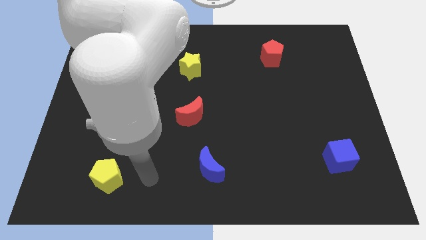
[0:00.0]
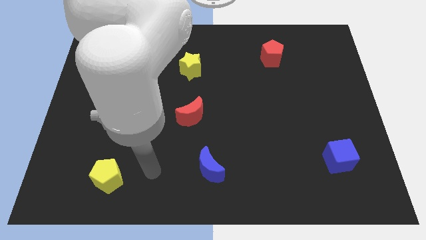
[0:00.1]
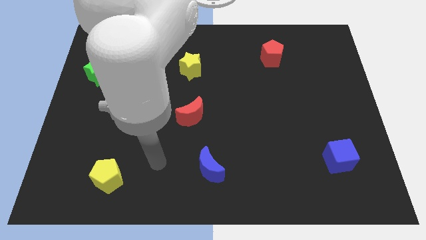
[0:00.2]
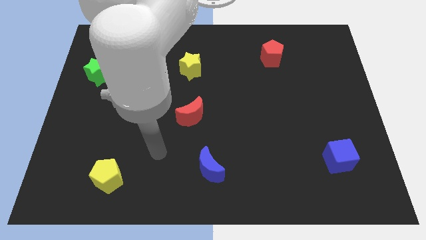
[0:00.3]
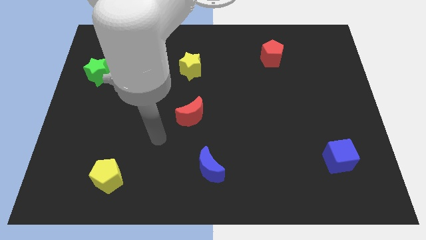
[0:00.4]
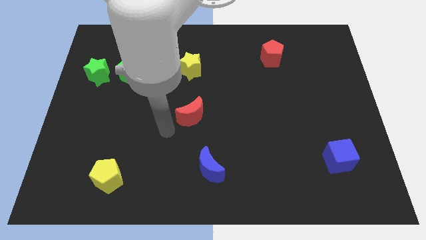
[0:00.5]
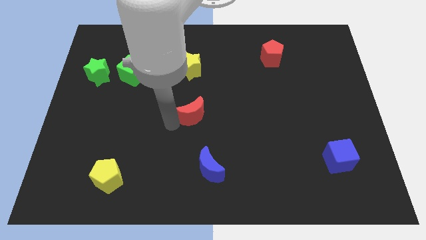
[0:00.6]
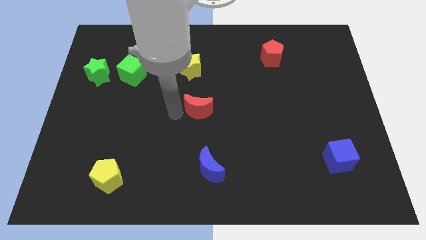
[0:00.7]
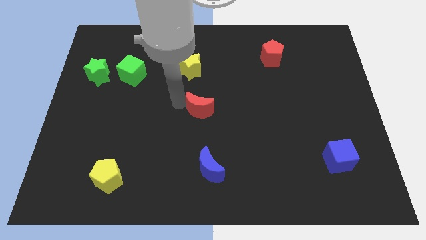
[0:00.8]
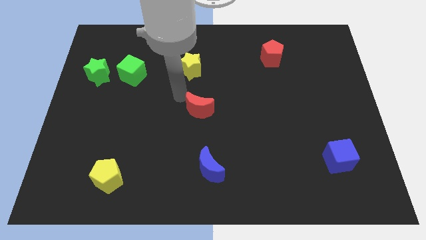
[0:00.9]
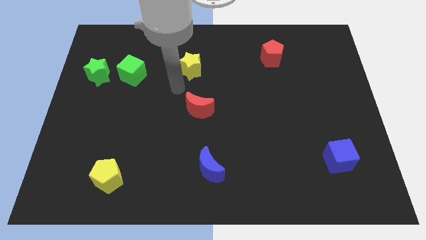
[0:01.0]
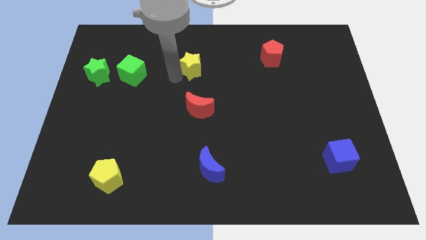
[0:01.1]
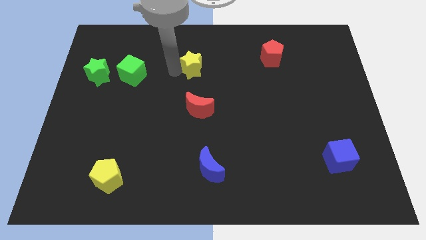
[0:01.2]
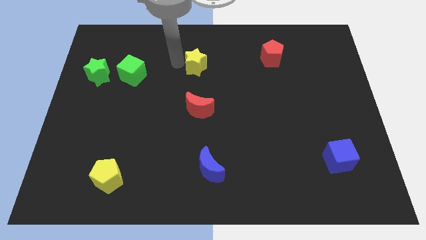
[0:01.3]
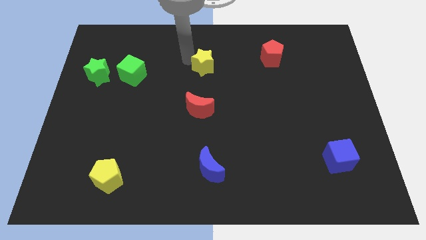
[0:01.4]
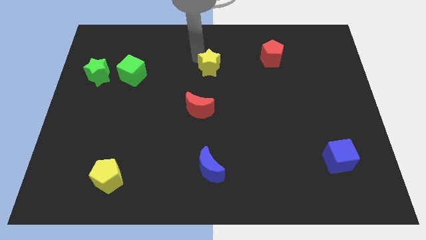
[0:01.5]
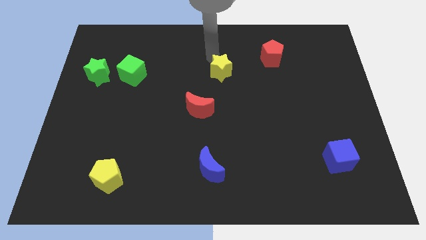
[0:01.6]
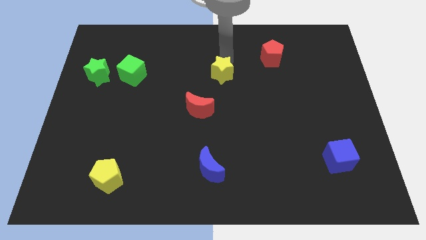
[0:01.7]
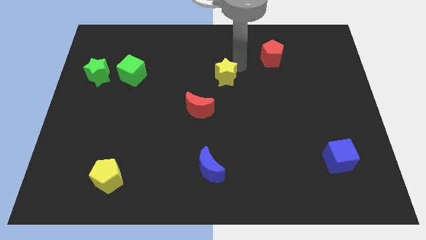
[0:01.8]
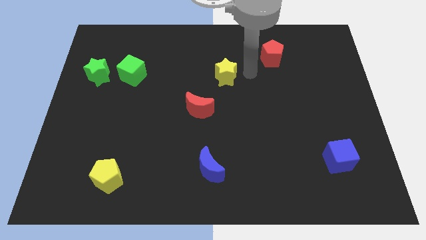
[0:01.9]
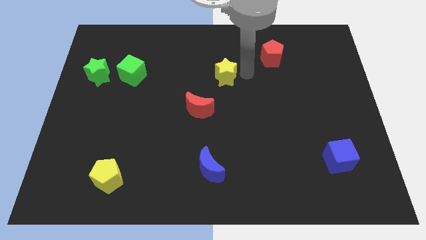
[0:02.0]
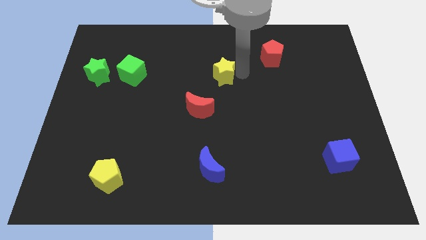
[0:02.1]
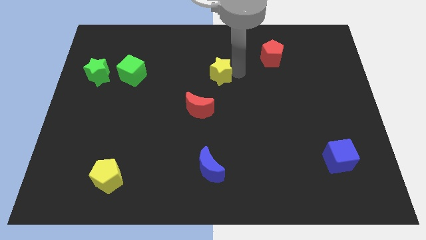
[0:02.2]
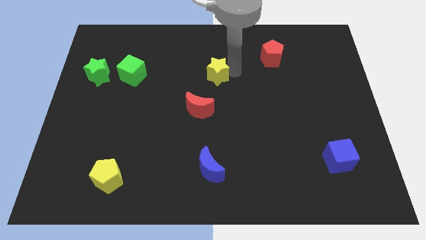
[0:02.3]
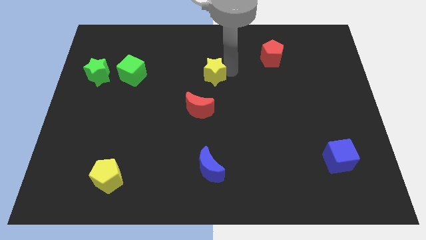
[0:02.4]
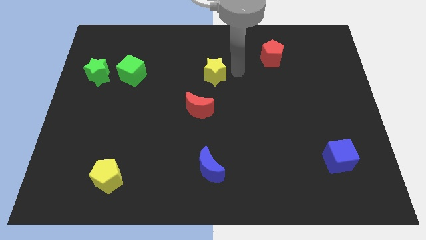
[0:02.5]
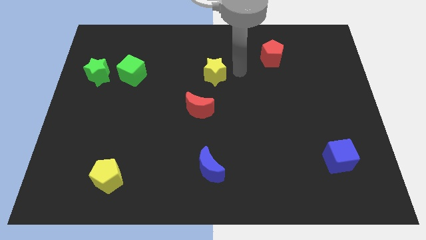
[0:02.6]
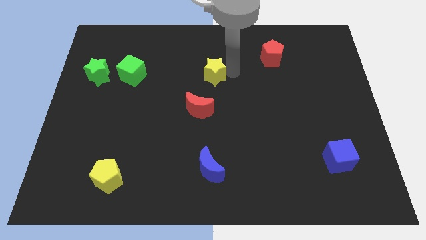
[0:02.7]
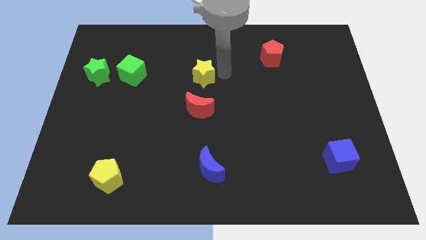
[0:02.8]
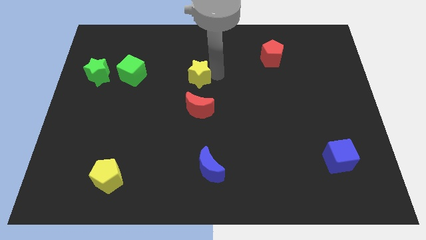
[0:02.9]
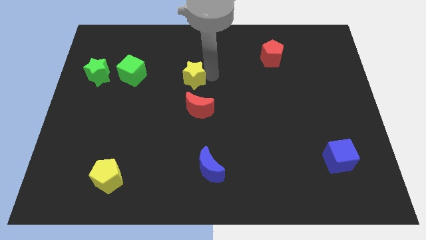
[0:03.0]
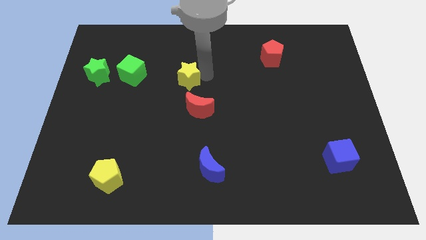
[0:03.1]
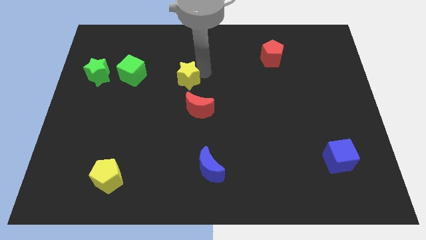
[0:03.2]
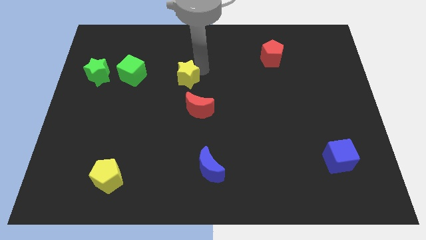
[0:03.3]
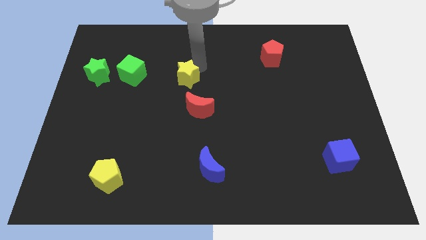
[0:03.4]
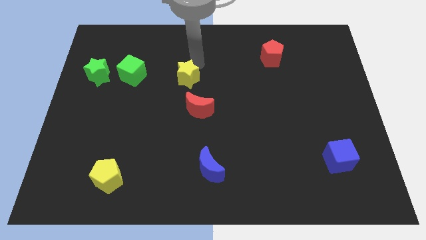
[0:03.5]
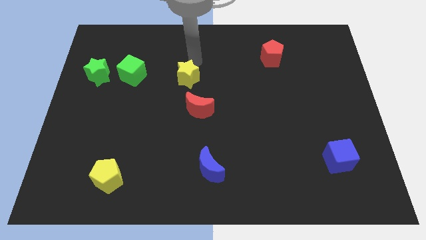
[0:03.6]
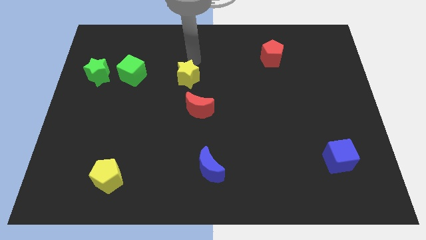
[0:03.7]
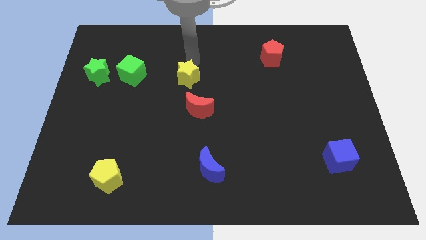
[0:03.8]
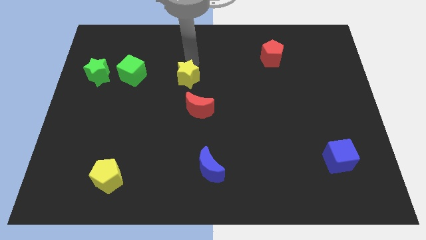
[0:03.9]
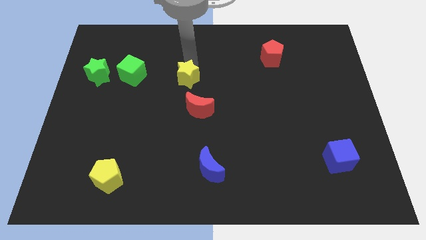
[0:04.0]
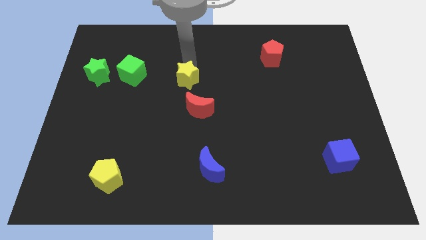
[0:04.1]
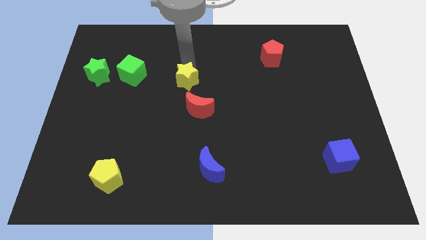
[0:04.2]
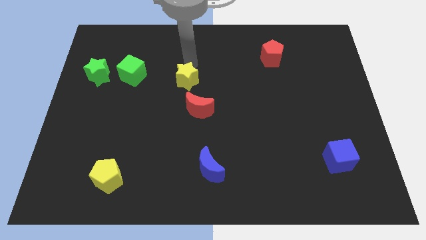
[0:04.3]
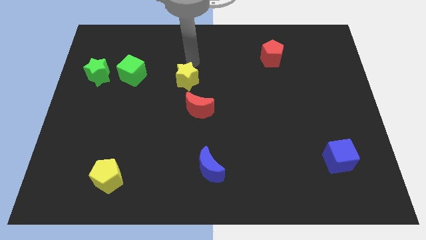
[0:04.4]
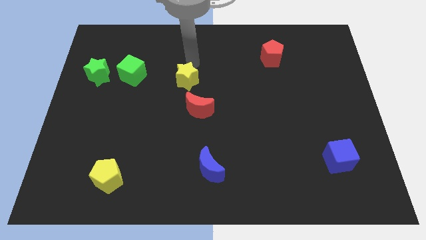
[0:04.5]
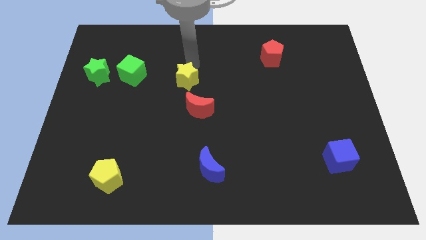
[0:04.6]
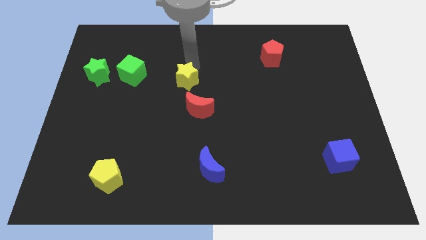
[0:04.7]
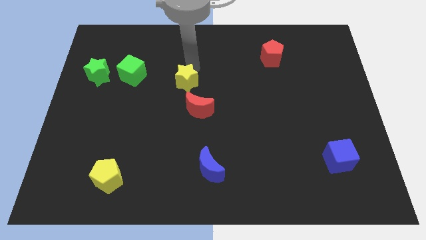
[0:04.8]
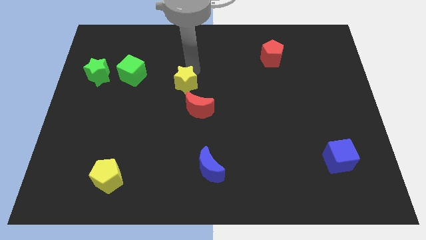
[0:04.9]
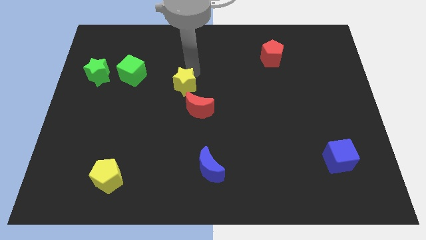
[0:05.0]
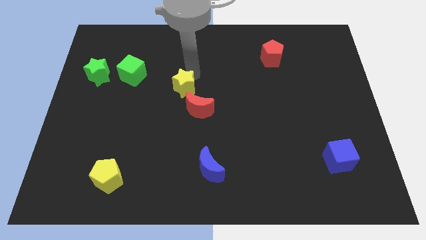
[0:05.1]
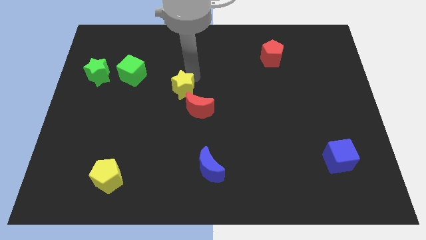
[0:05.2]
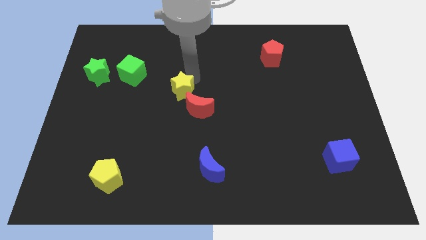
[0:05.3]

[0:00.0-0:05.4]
slide the yellow star slightly down

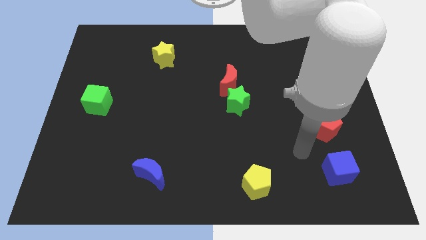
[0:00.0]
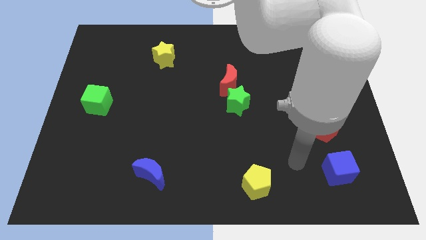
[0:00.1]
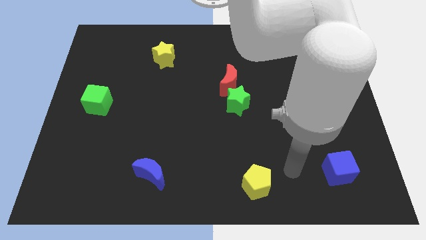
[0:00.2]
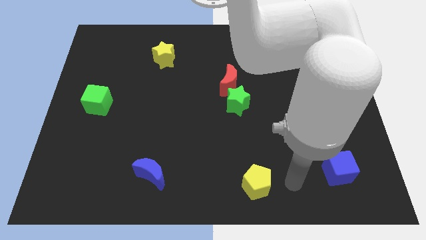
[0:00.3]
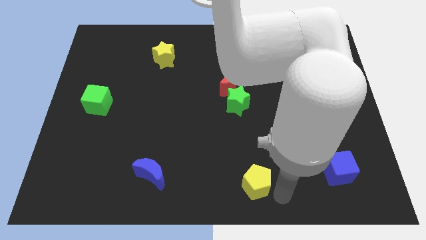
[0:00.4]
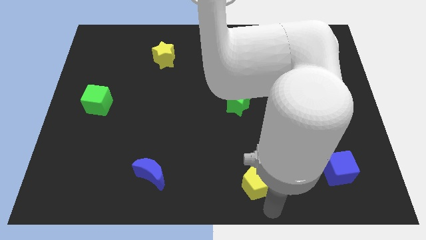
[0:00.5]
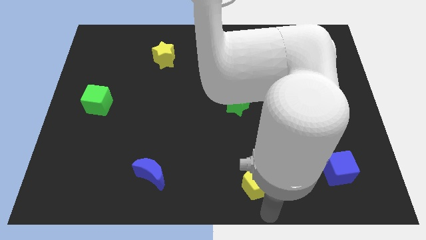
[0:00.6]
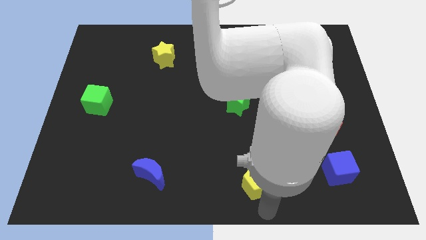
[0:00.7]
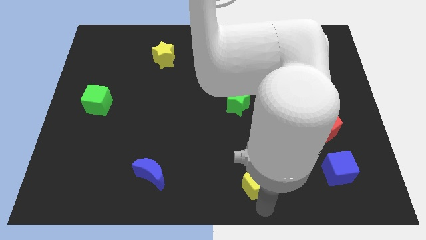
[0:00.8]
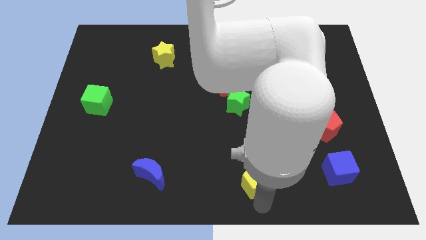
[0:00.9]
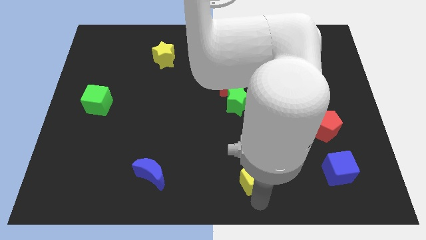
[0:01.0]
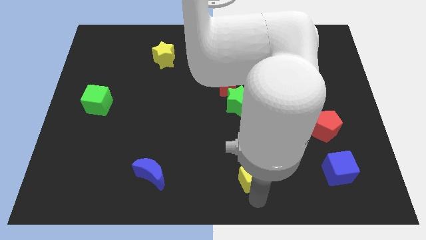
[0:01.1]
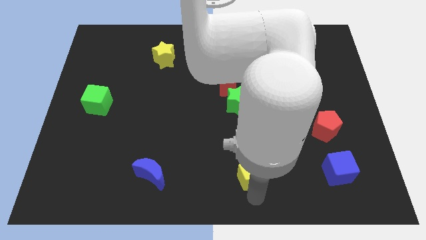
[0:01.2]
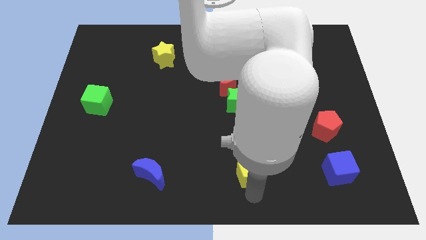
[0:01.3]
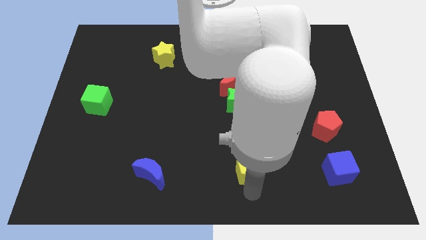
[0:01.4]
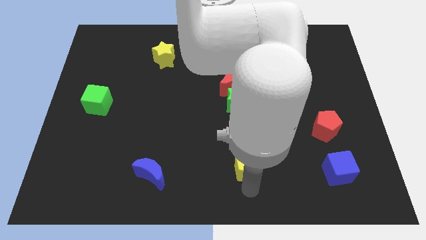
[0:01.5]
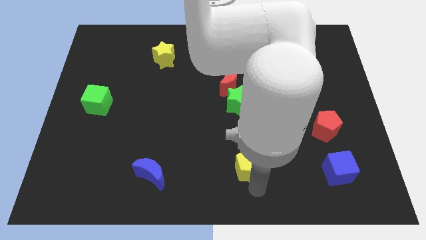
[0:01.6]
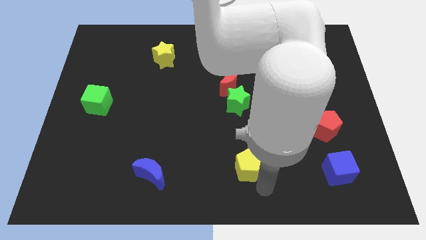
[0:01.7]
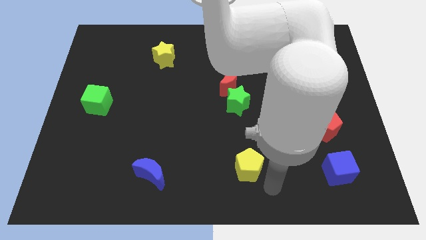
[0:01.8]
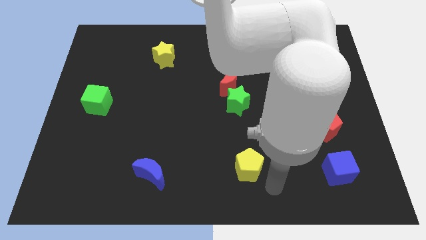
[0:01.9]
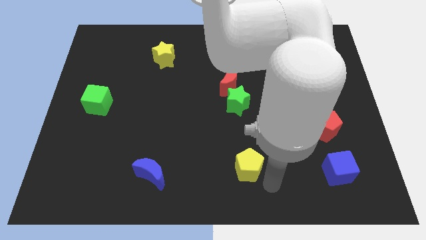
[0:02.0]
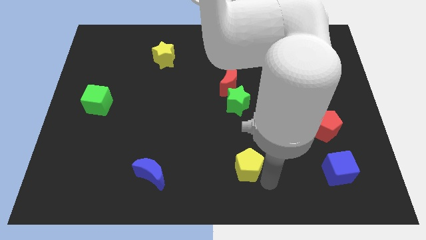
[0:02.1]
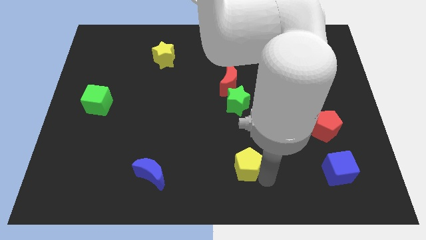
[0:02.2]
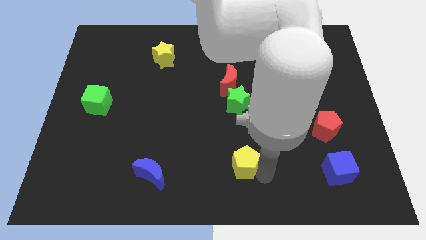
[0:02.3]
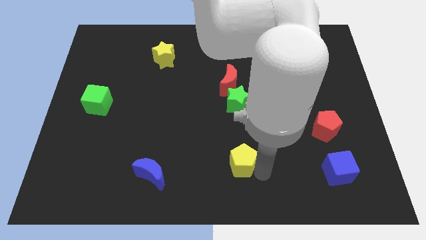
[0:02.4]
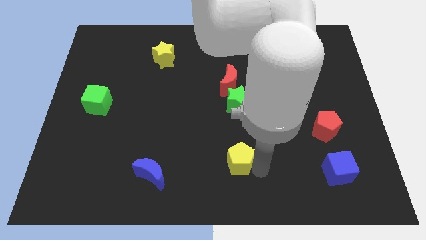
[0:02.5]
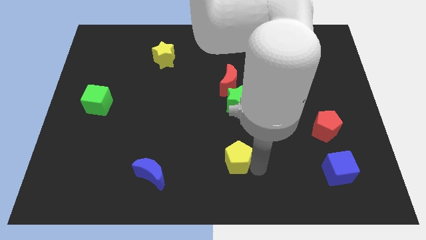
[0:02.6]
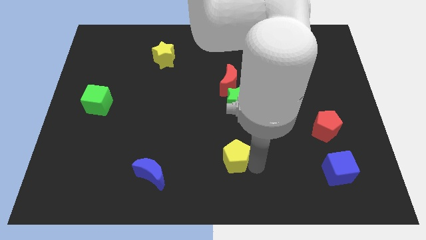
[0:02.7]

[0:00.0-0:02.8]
push the yellow pentagon upwards and to the left a little
